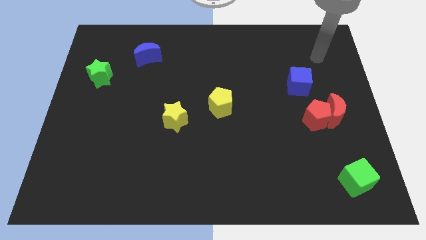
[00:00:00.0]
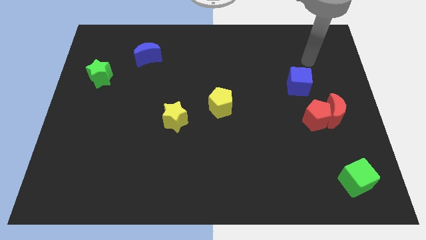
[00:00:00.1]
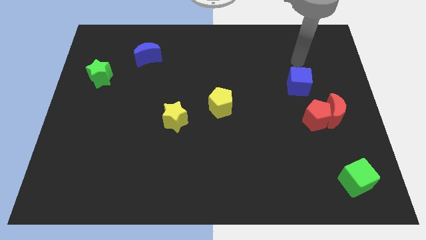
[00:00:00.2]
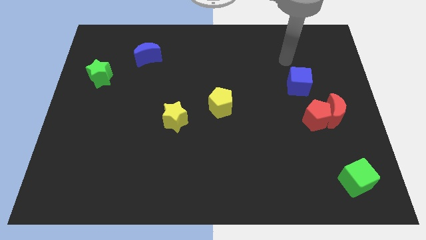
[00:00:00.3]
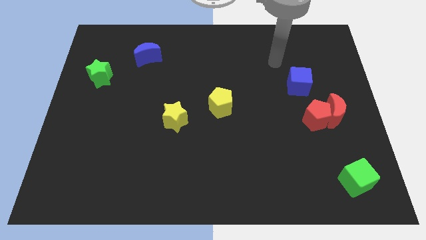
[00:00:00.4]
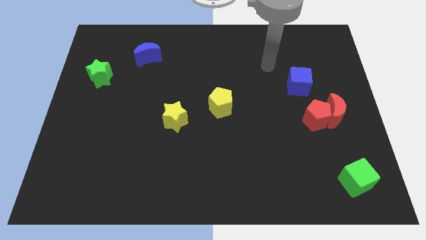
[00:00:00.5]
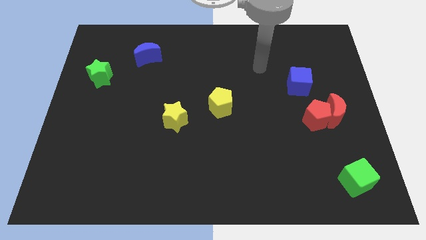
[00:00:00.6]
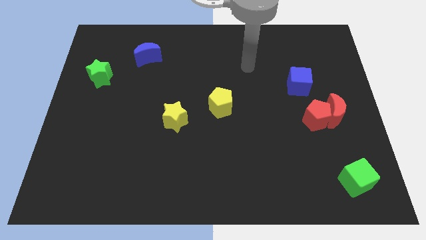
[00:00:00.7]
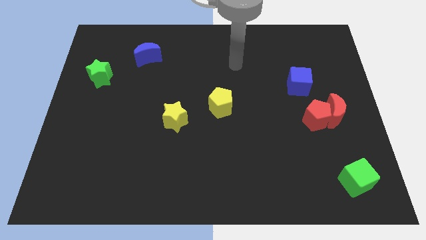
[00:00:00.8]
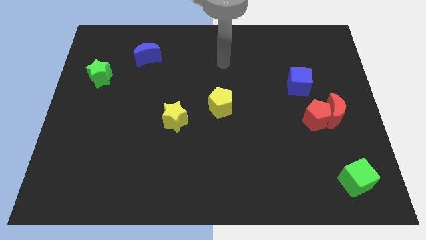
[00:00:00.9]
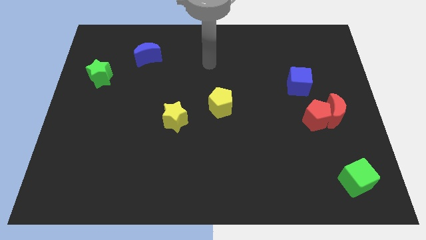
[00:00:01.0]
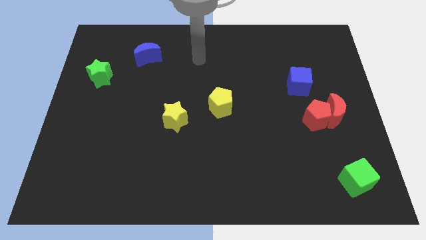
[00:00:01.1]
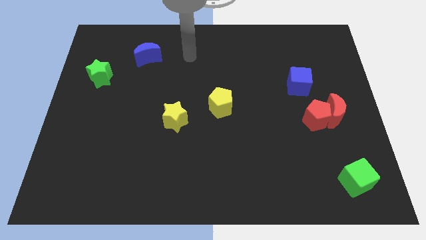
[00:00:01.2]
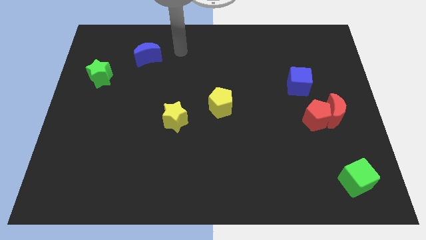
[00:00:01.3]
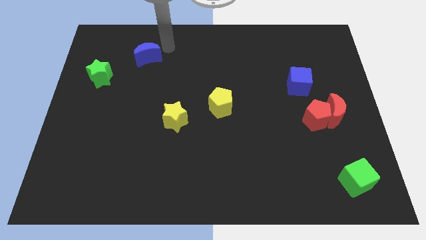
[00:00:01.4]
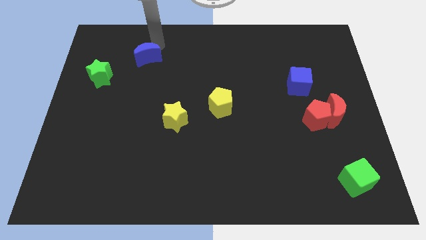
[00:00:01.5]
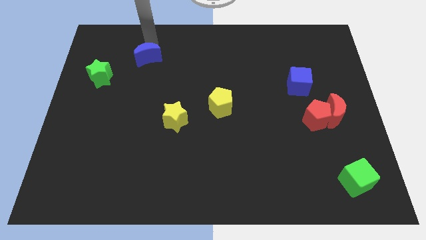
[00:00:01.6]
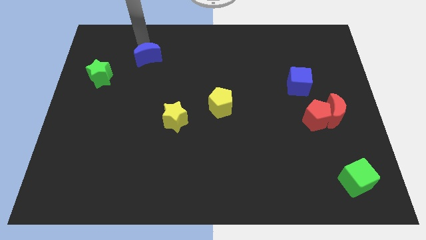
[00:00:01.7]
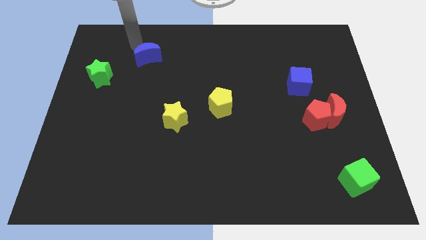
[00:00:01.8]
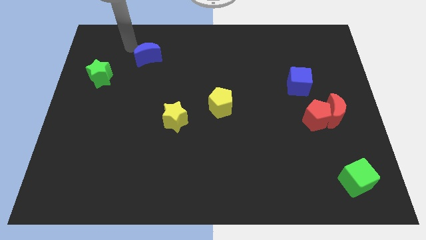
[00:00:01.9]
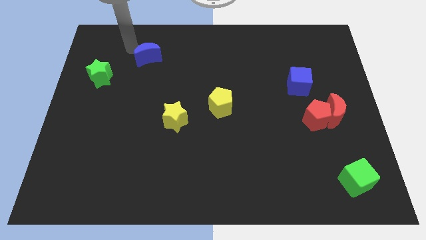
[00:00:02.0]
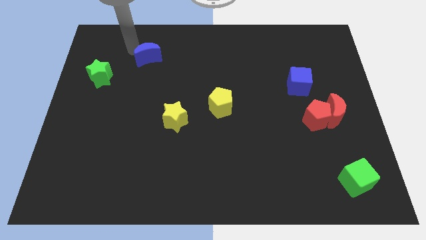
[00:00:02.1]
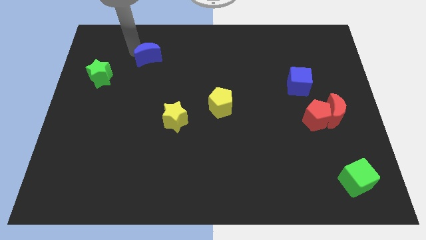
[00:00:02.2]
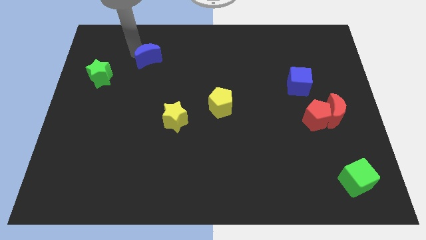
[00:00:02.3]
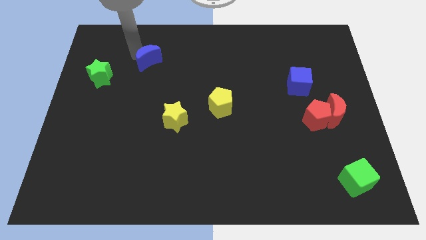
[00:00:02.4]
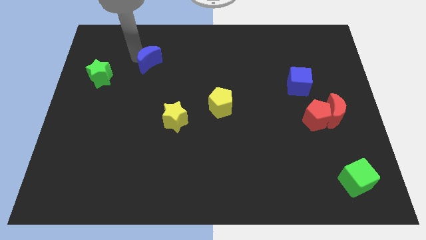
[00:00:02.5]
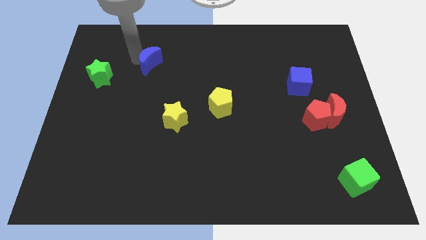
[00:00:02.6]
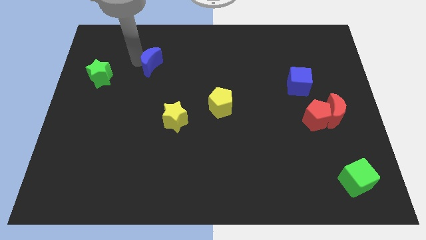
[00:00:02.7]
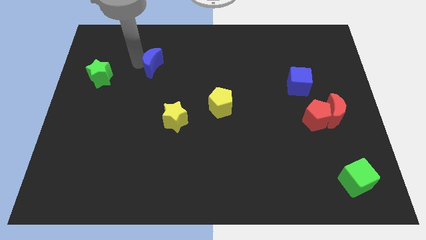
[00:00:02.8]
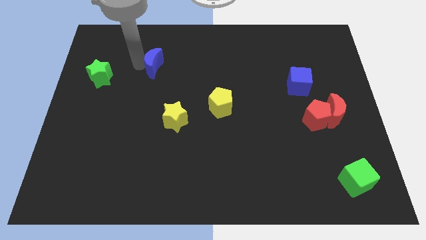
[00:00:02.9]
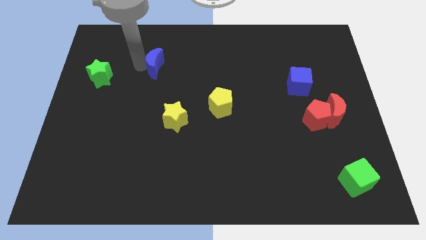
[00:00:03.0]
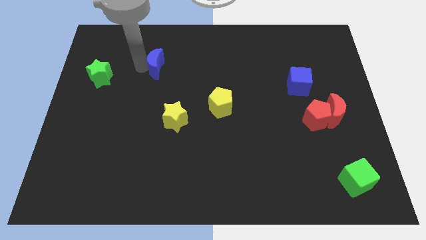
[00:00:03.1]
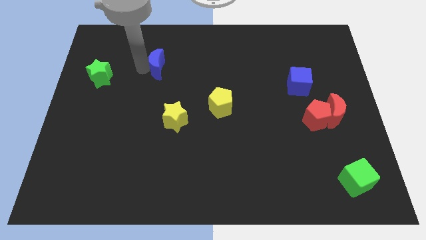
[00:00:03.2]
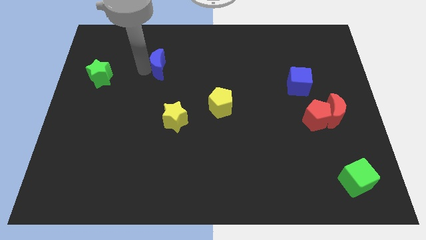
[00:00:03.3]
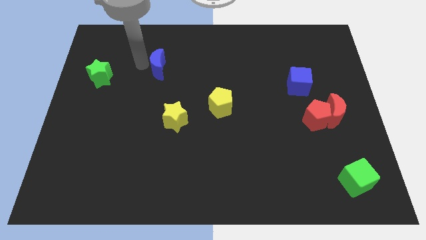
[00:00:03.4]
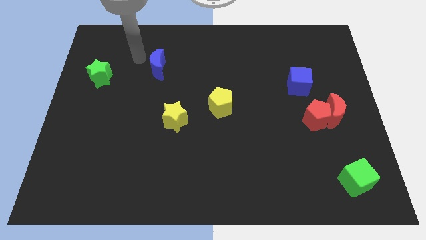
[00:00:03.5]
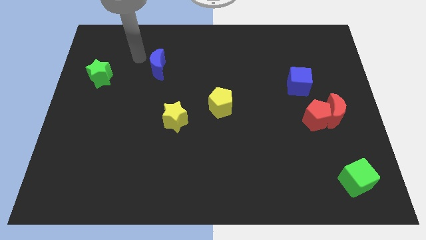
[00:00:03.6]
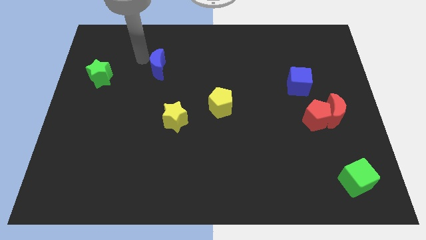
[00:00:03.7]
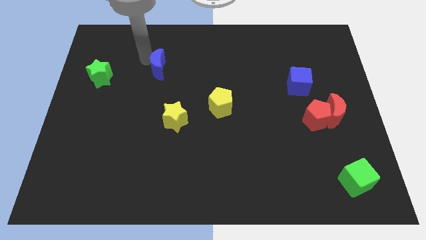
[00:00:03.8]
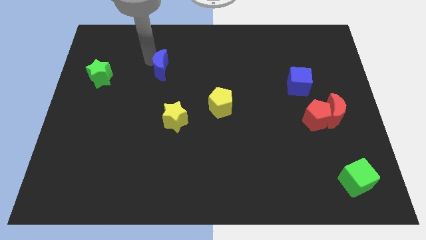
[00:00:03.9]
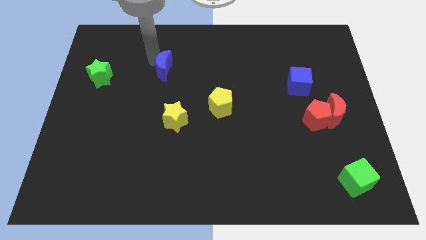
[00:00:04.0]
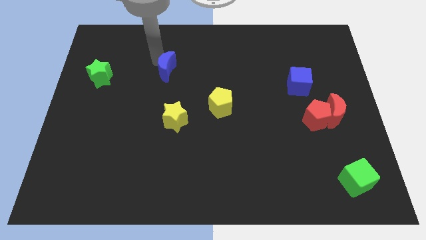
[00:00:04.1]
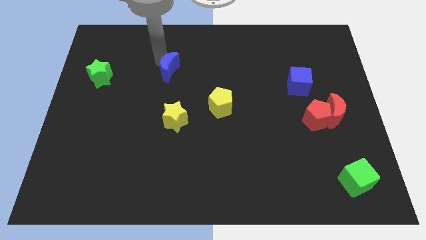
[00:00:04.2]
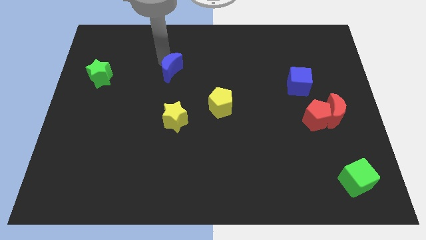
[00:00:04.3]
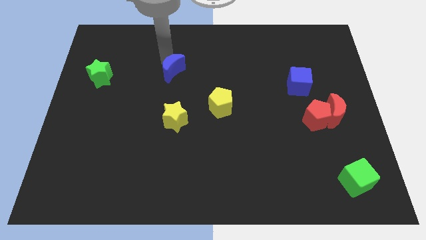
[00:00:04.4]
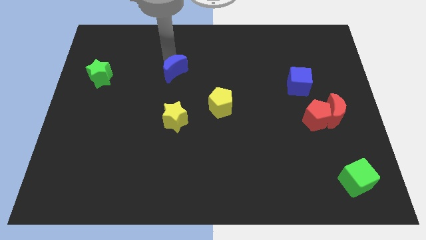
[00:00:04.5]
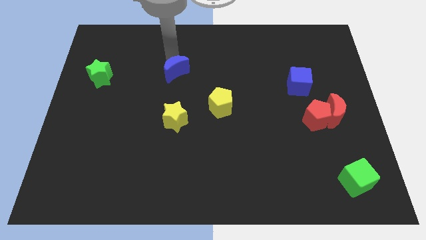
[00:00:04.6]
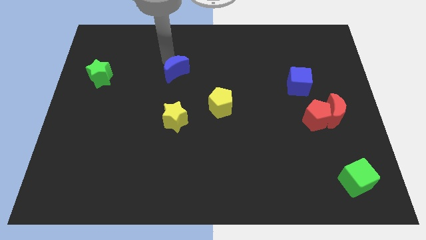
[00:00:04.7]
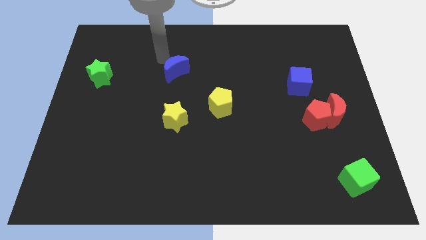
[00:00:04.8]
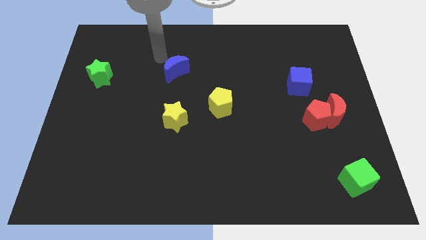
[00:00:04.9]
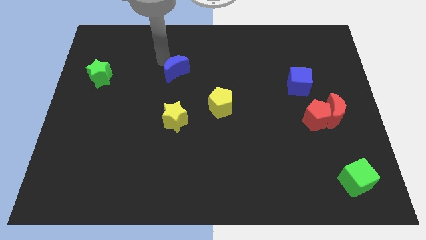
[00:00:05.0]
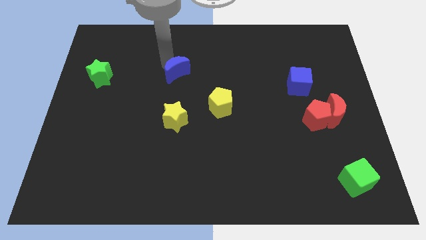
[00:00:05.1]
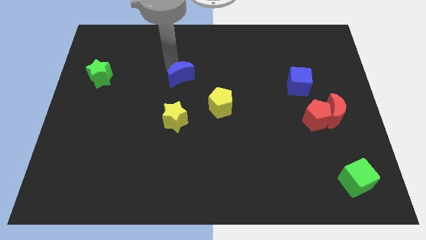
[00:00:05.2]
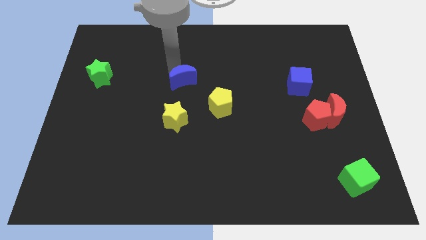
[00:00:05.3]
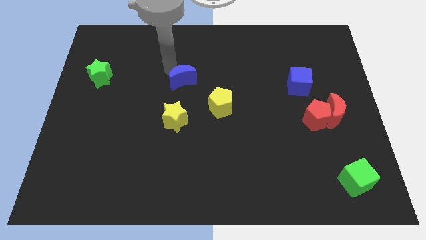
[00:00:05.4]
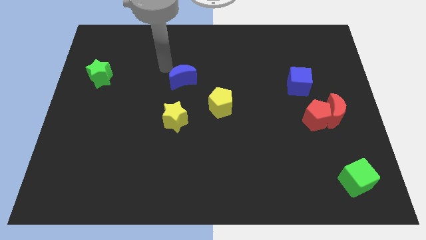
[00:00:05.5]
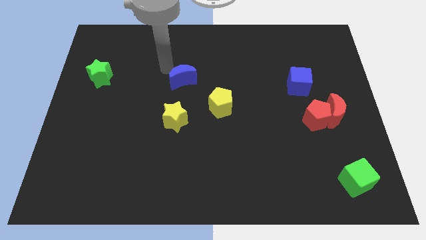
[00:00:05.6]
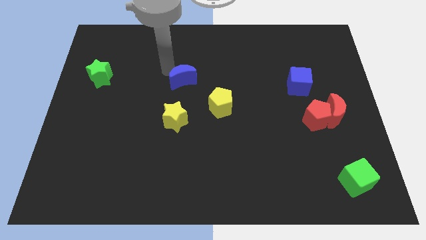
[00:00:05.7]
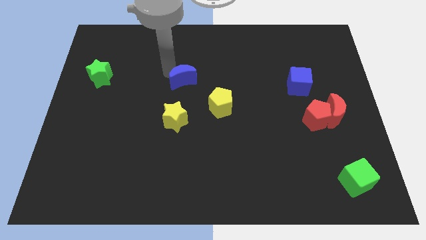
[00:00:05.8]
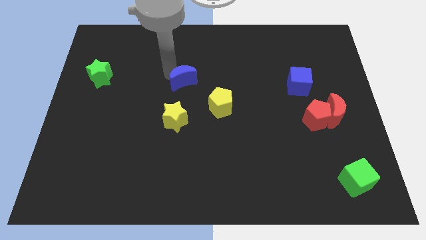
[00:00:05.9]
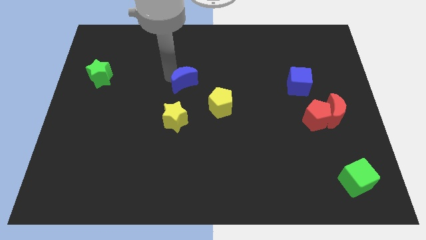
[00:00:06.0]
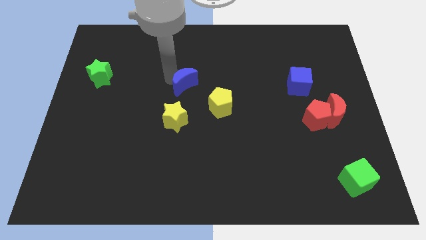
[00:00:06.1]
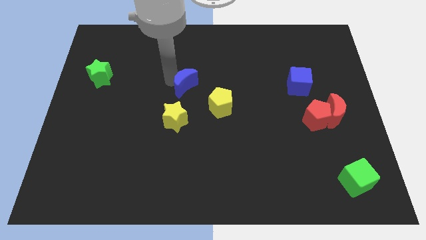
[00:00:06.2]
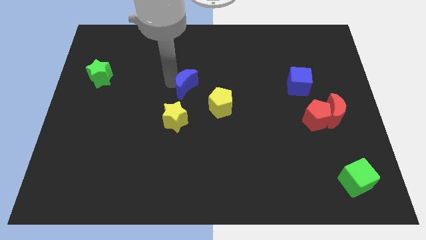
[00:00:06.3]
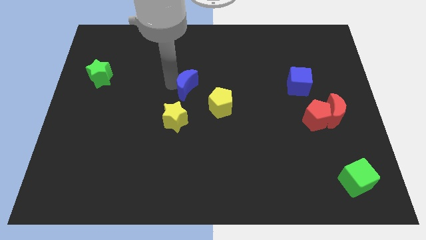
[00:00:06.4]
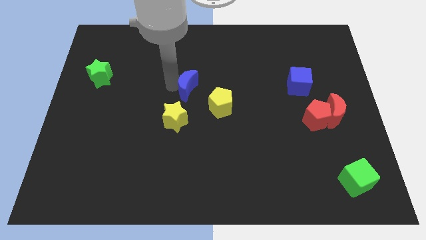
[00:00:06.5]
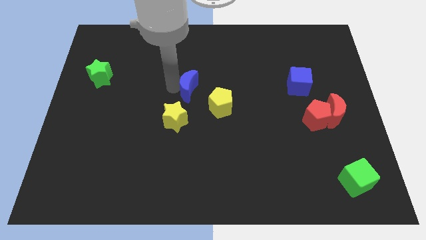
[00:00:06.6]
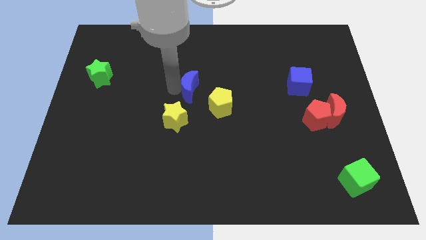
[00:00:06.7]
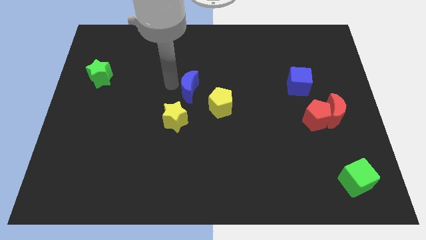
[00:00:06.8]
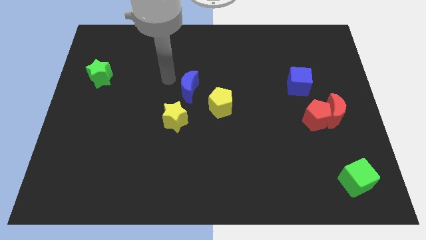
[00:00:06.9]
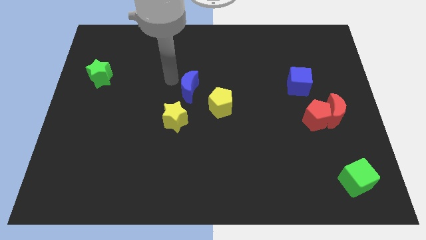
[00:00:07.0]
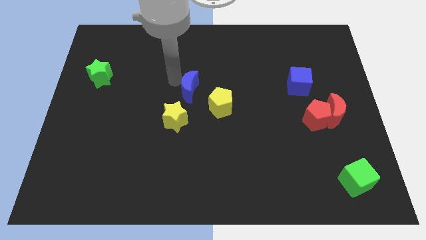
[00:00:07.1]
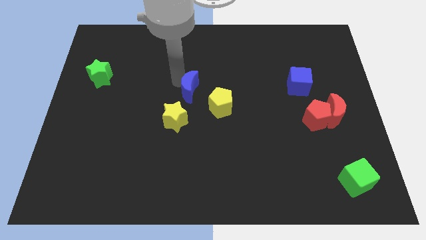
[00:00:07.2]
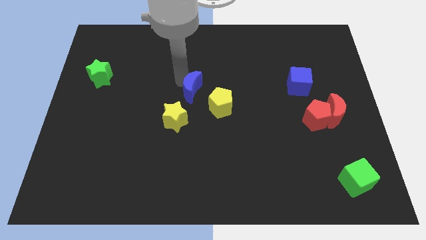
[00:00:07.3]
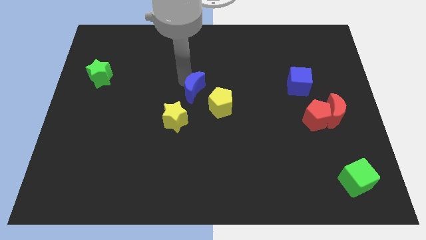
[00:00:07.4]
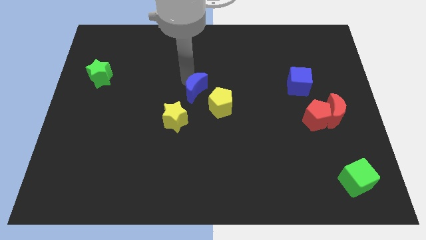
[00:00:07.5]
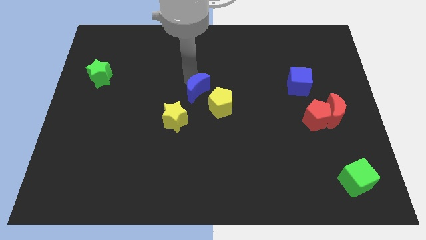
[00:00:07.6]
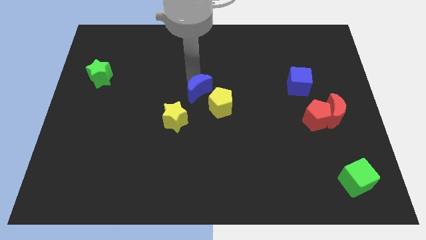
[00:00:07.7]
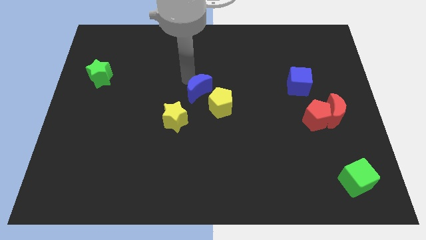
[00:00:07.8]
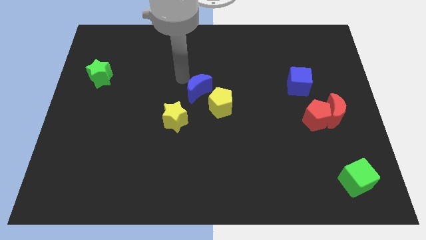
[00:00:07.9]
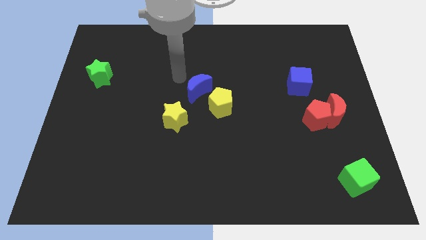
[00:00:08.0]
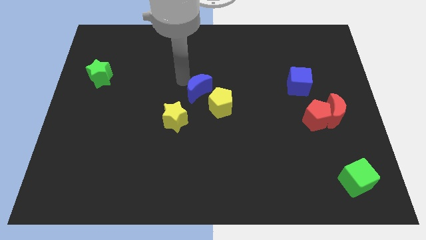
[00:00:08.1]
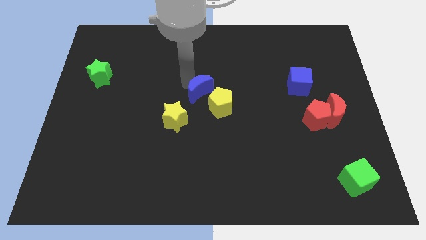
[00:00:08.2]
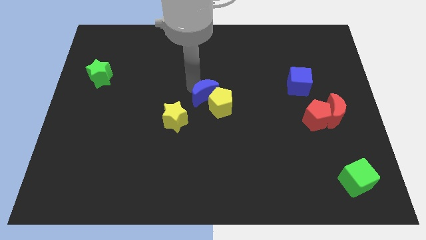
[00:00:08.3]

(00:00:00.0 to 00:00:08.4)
put the blue moon close to the yellow pentagon
